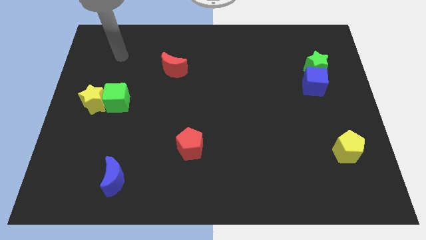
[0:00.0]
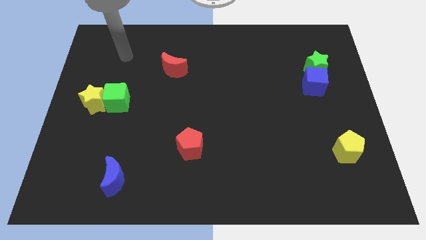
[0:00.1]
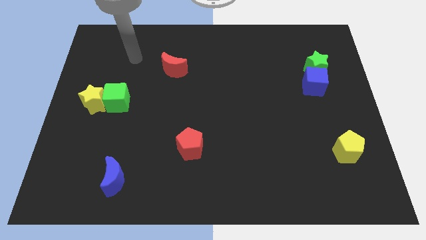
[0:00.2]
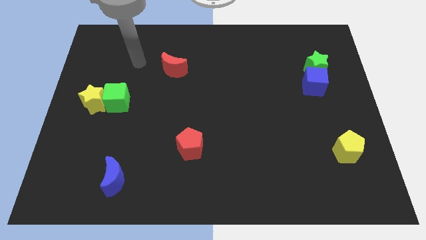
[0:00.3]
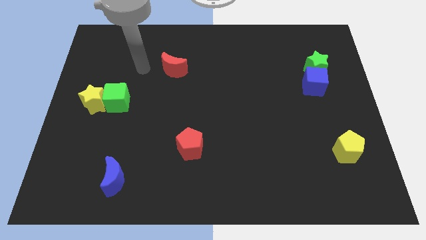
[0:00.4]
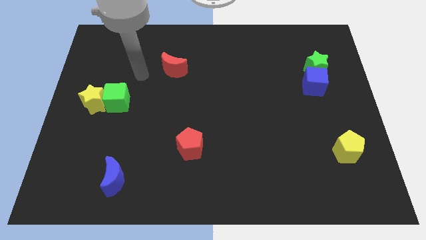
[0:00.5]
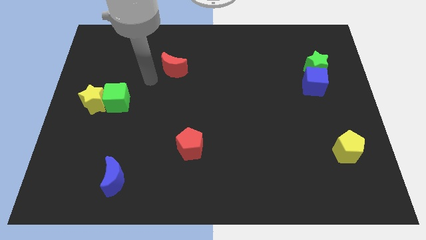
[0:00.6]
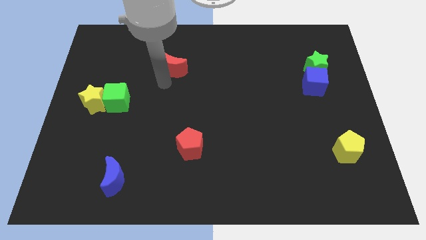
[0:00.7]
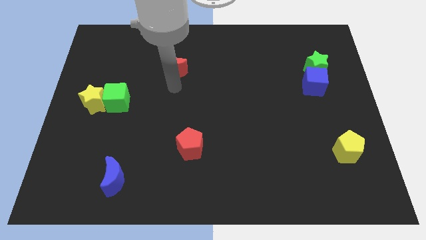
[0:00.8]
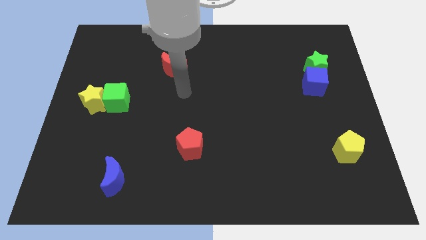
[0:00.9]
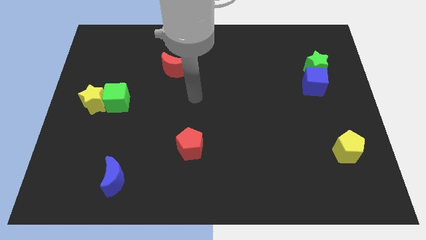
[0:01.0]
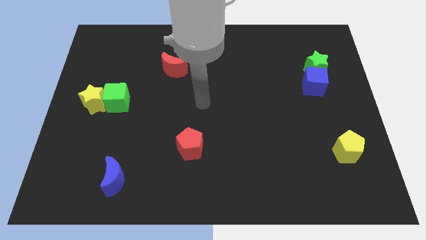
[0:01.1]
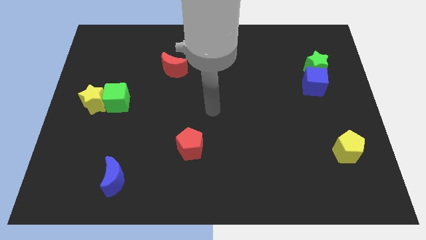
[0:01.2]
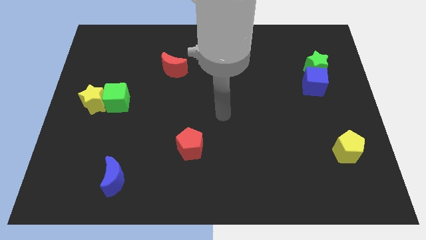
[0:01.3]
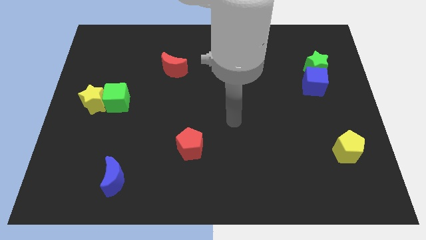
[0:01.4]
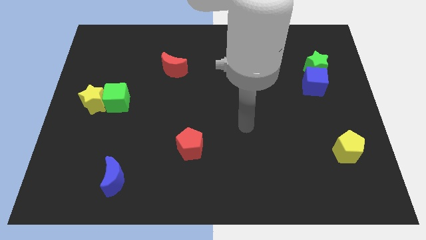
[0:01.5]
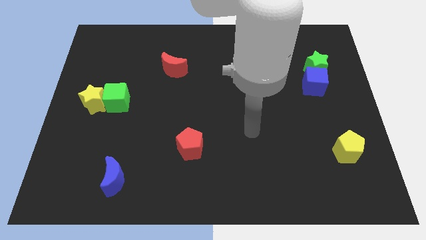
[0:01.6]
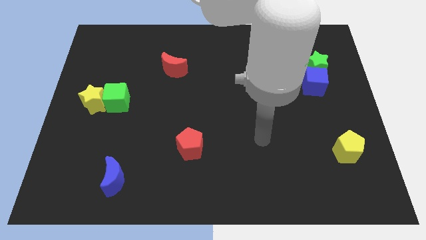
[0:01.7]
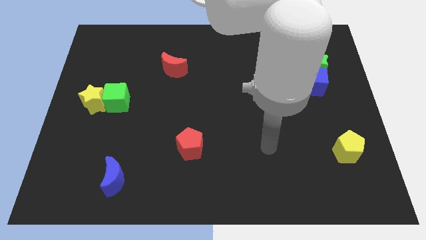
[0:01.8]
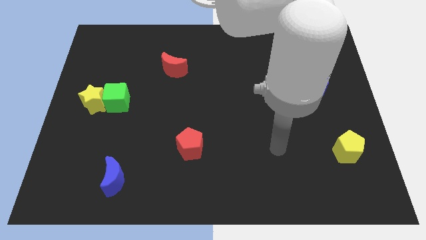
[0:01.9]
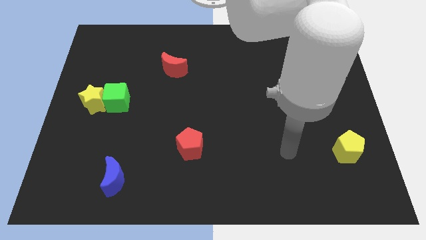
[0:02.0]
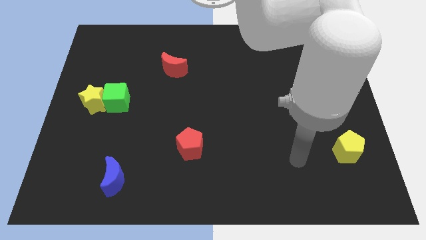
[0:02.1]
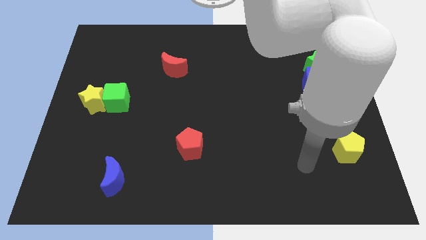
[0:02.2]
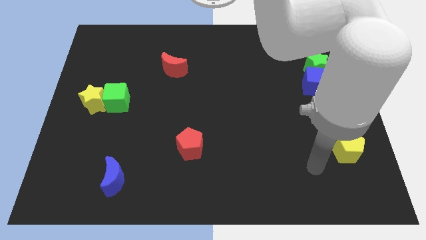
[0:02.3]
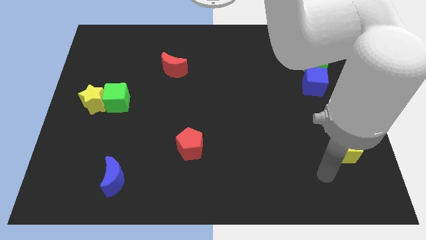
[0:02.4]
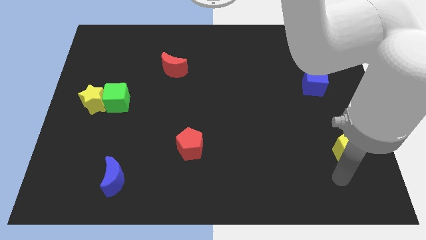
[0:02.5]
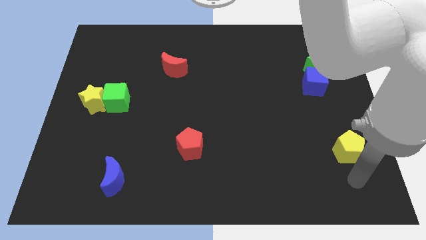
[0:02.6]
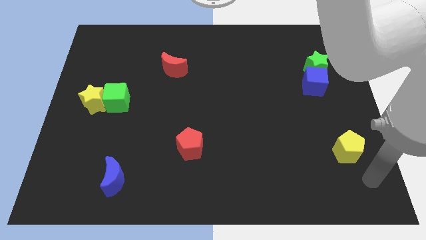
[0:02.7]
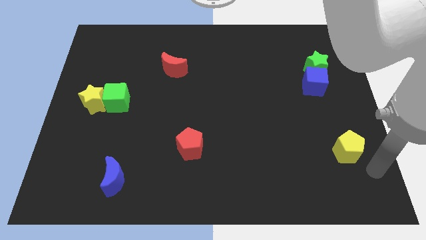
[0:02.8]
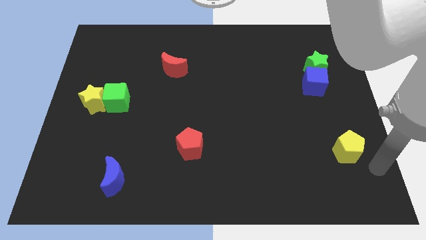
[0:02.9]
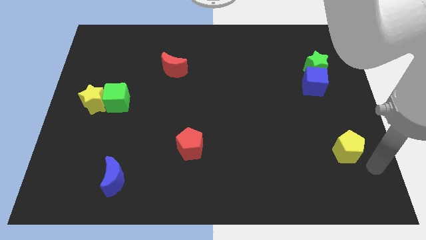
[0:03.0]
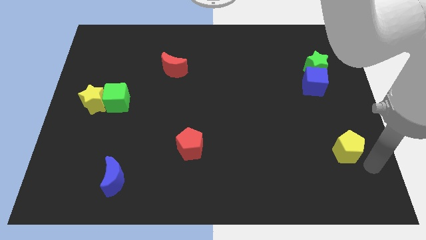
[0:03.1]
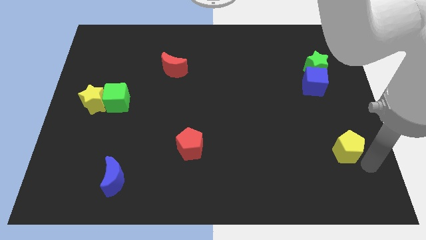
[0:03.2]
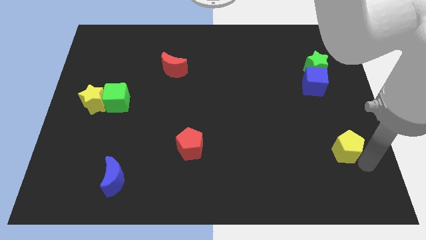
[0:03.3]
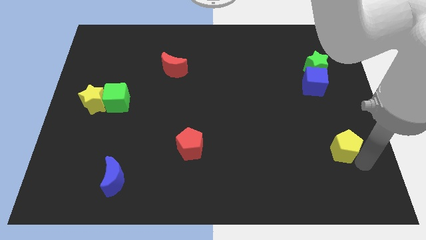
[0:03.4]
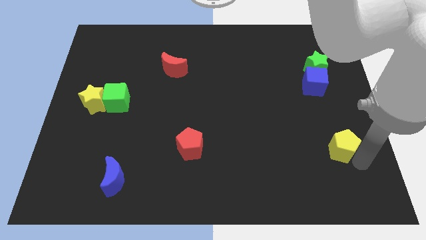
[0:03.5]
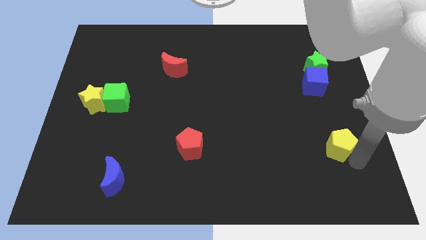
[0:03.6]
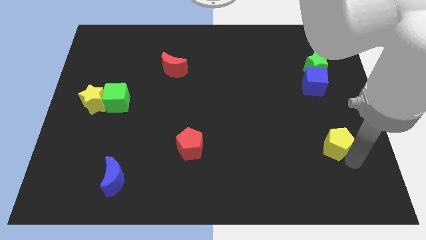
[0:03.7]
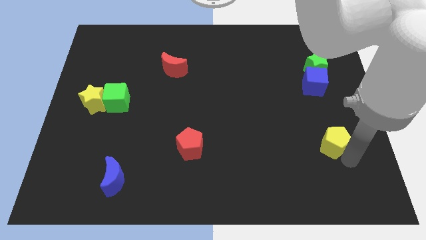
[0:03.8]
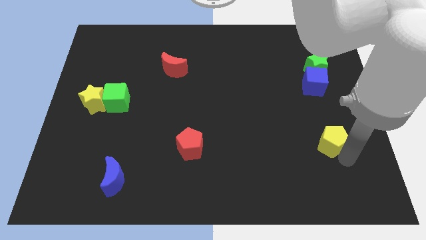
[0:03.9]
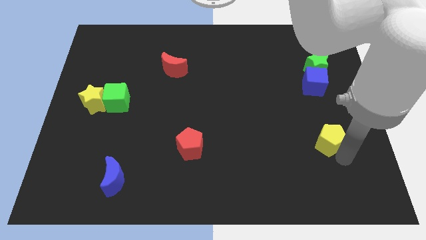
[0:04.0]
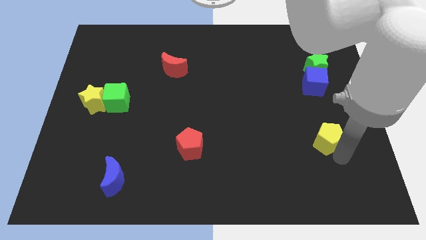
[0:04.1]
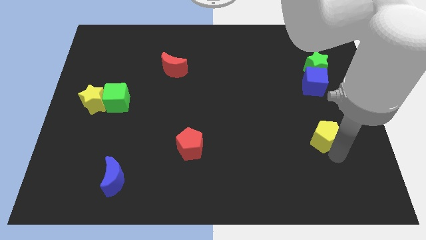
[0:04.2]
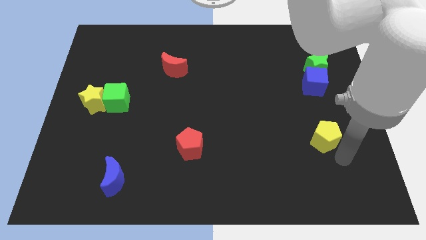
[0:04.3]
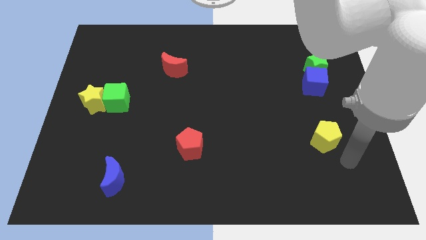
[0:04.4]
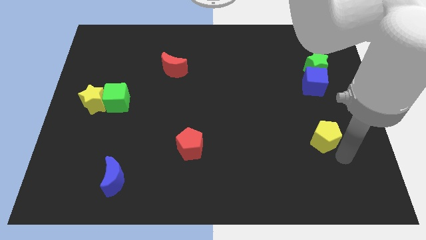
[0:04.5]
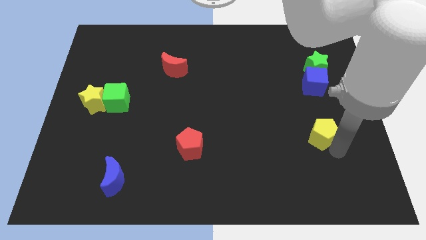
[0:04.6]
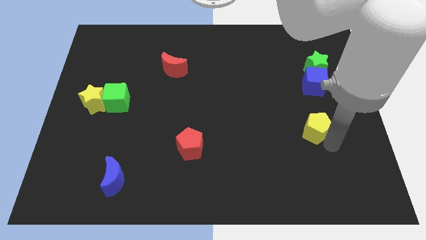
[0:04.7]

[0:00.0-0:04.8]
slightly move the yellow pentagon upwards and left

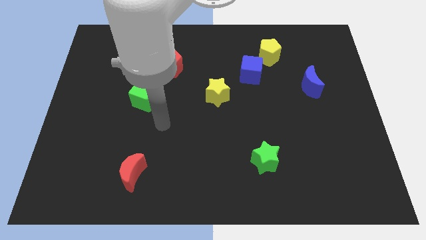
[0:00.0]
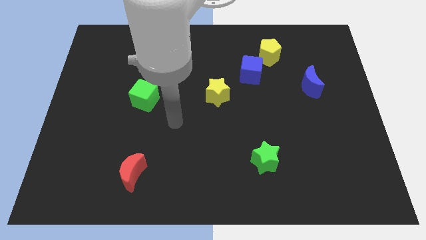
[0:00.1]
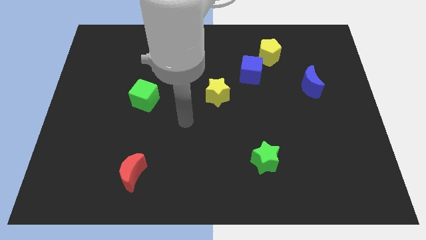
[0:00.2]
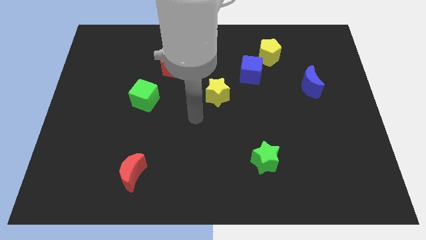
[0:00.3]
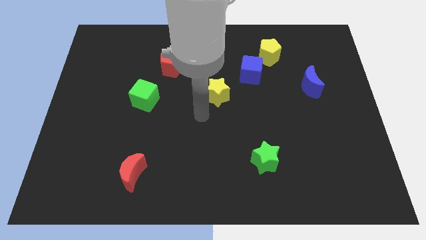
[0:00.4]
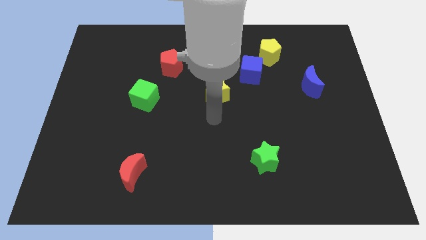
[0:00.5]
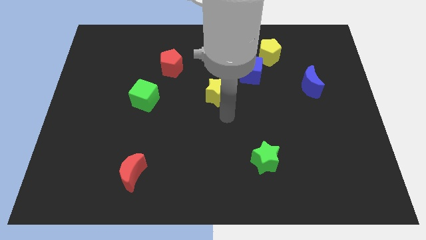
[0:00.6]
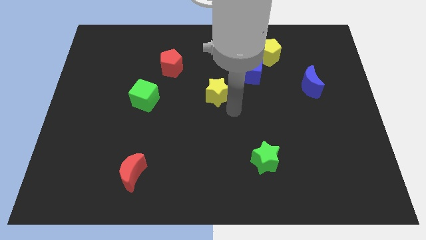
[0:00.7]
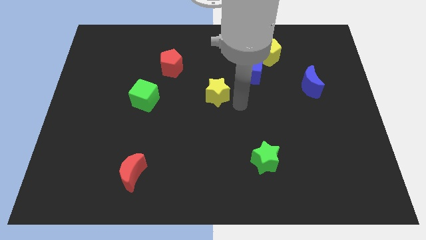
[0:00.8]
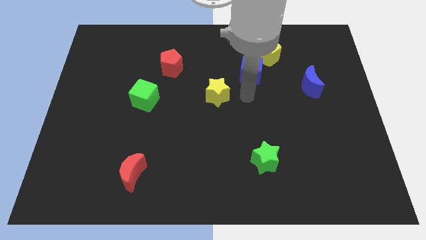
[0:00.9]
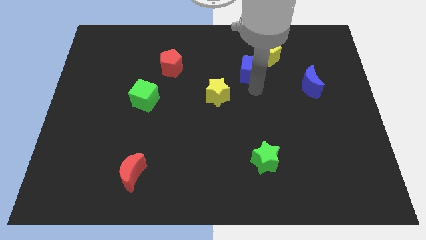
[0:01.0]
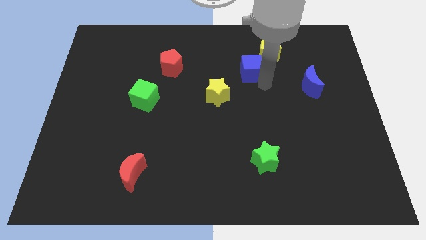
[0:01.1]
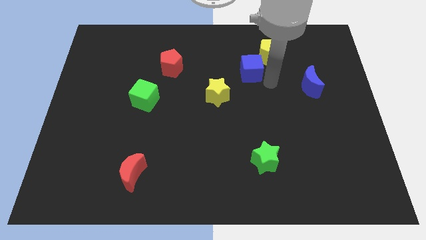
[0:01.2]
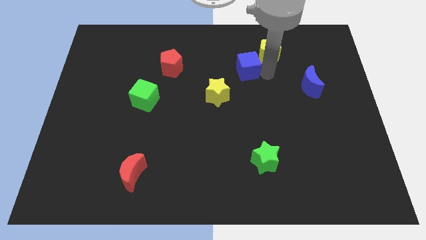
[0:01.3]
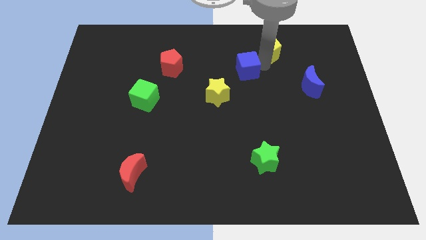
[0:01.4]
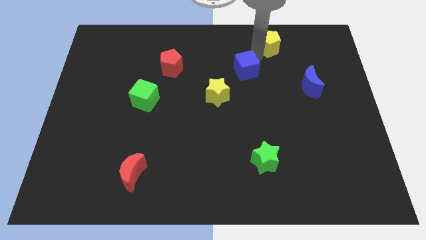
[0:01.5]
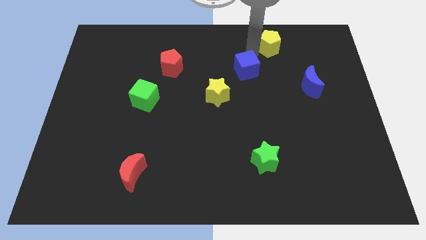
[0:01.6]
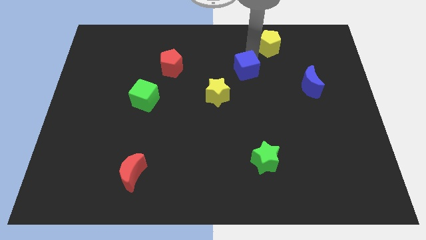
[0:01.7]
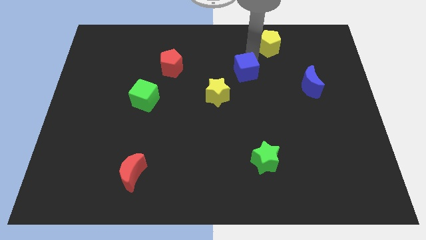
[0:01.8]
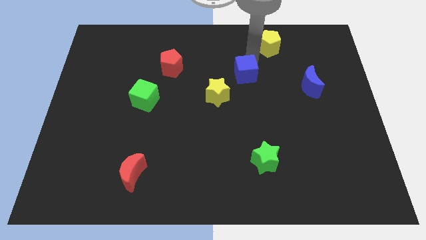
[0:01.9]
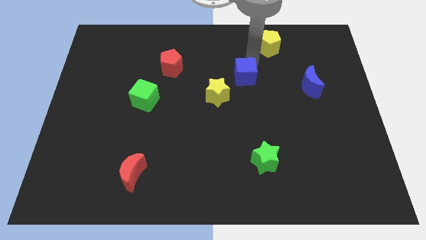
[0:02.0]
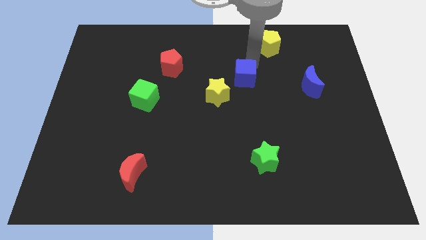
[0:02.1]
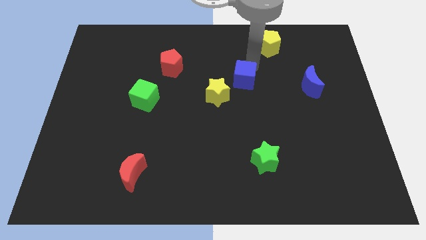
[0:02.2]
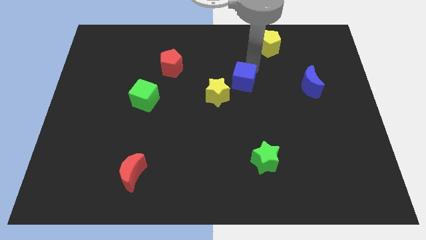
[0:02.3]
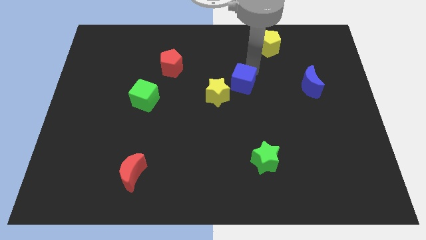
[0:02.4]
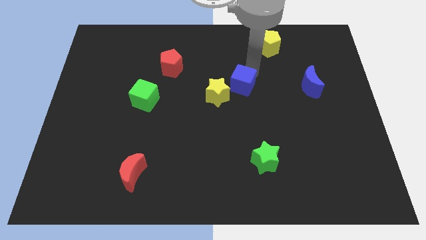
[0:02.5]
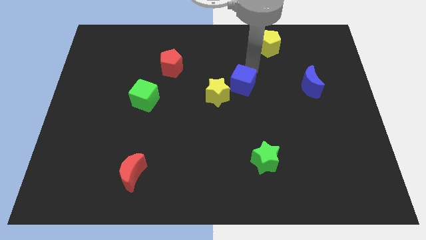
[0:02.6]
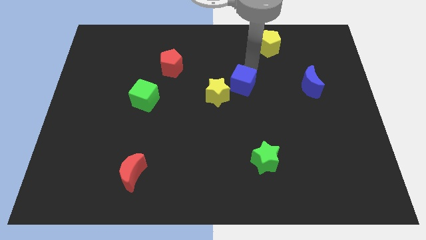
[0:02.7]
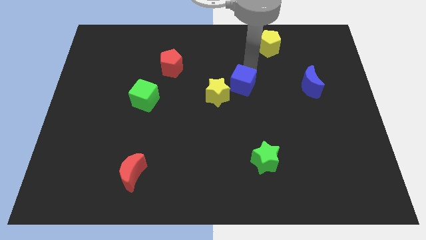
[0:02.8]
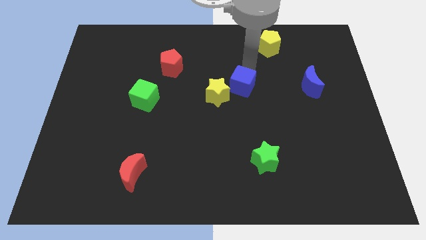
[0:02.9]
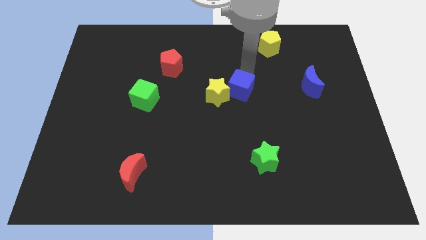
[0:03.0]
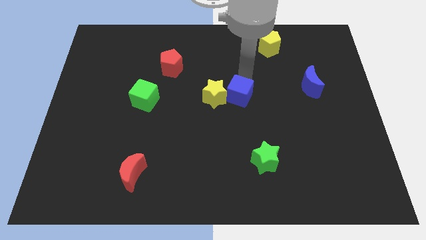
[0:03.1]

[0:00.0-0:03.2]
move the blue cube downwards and then to the left a little bit
